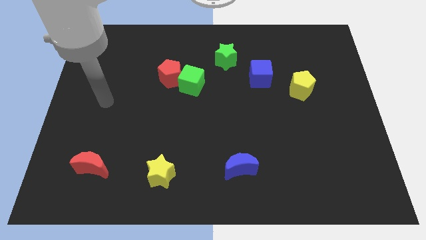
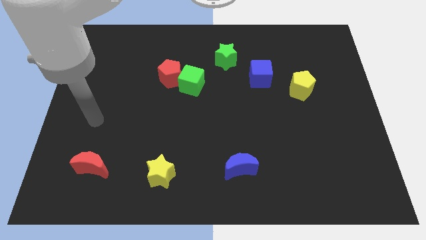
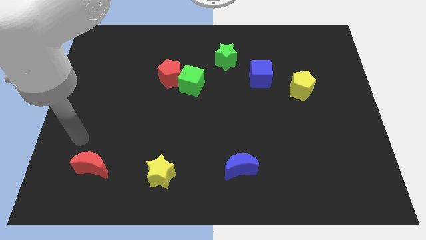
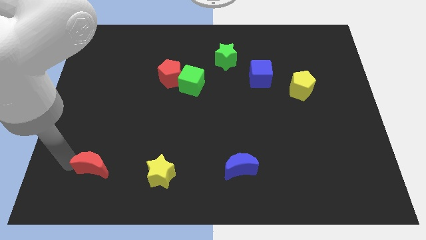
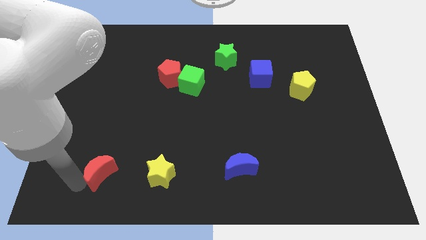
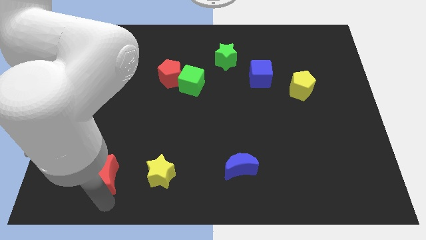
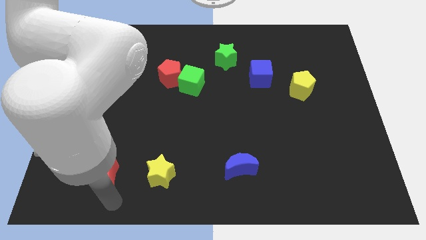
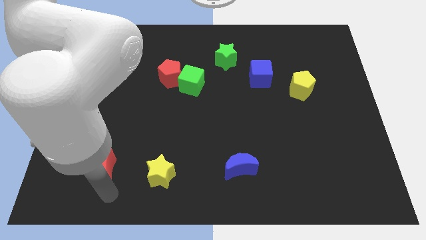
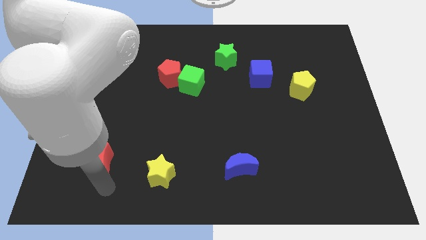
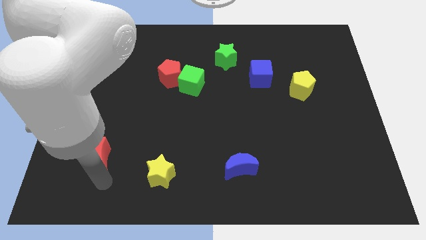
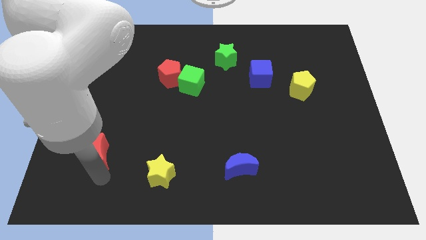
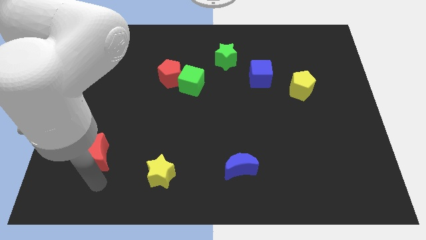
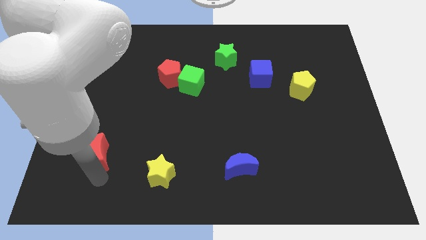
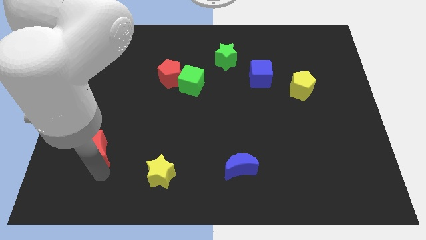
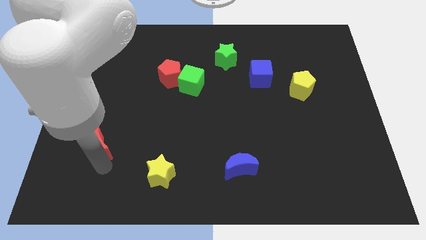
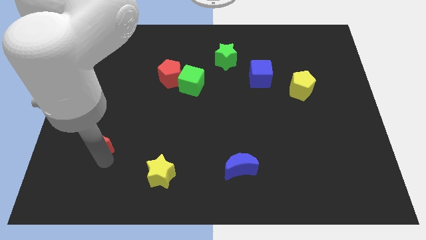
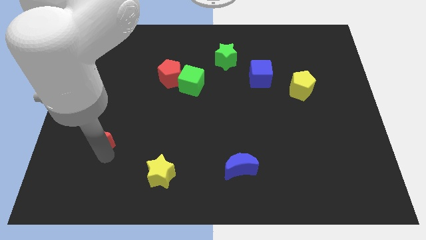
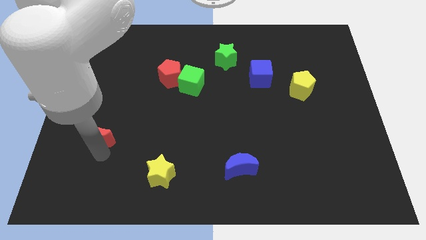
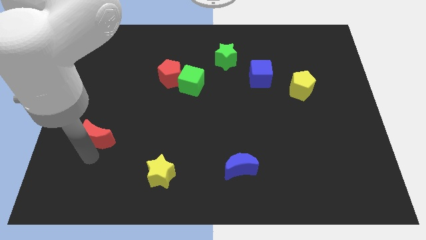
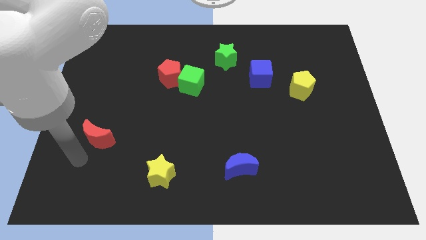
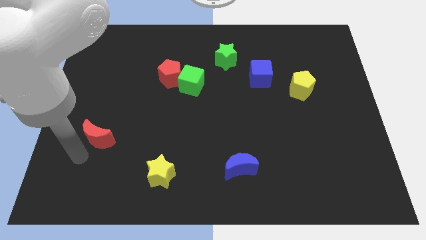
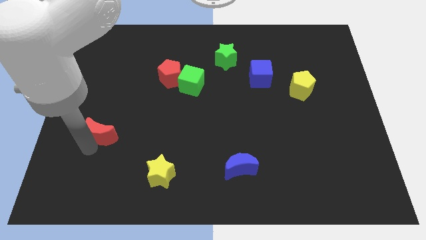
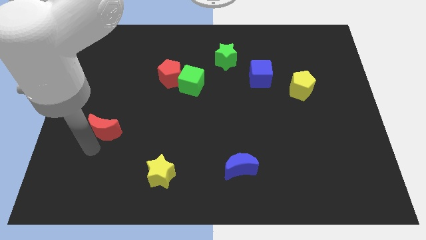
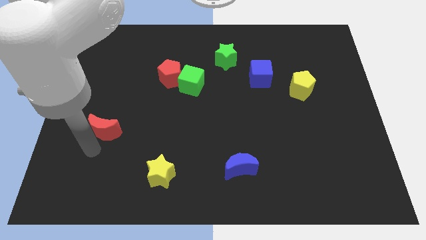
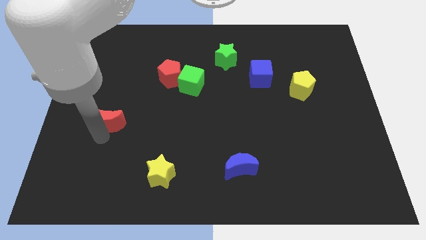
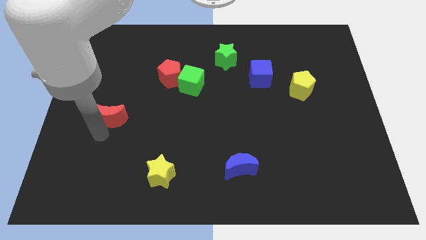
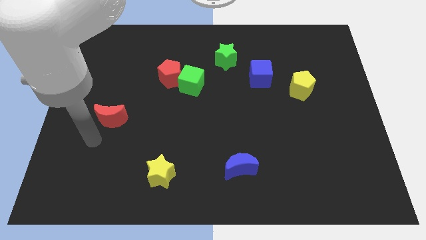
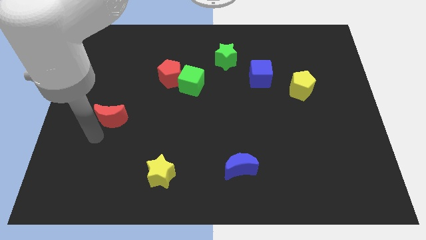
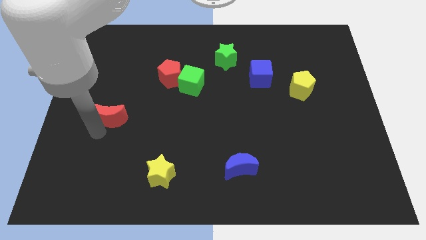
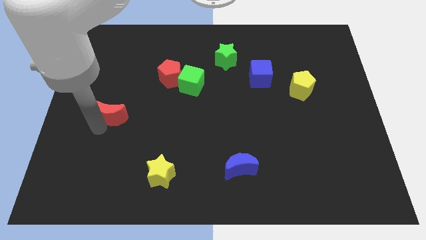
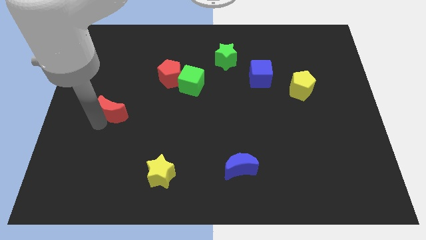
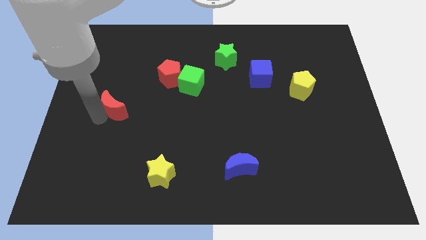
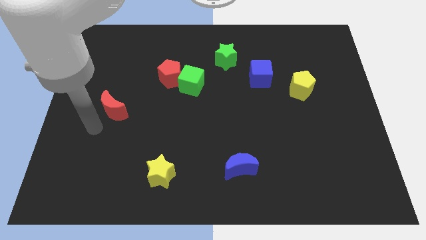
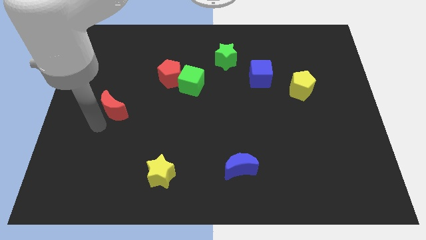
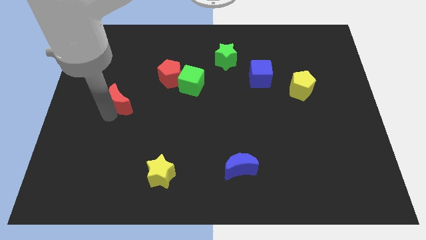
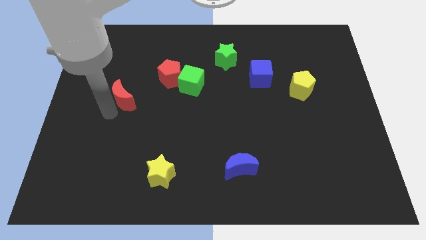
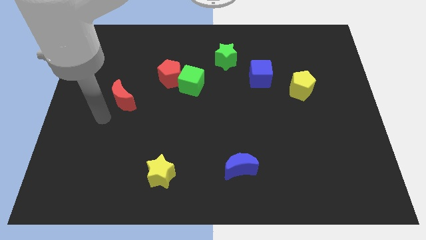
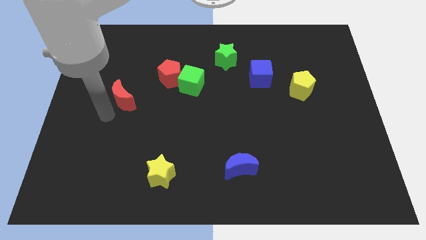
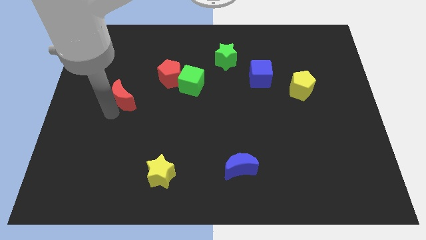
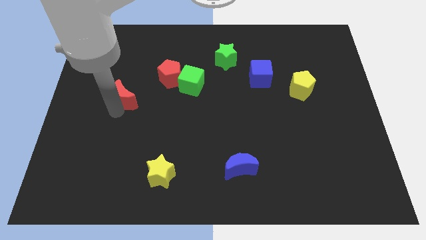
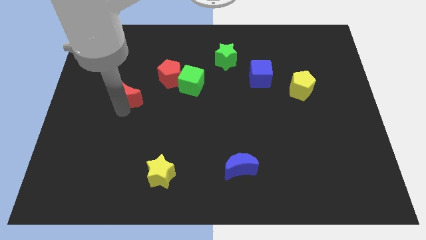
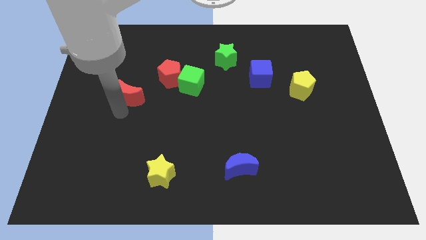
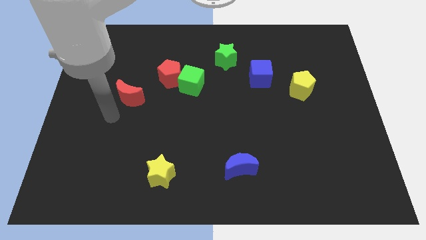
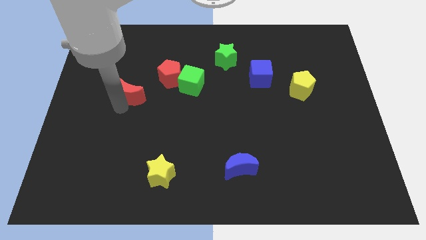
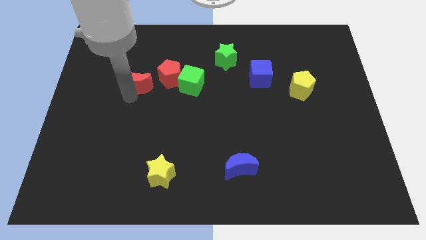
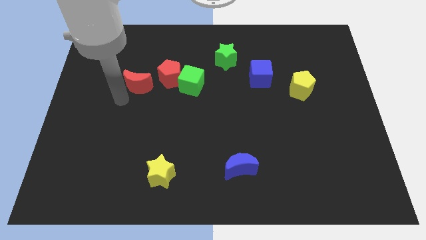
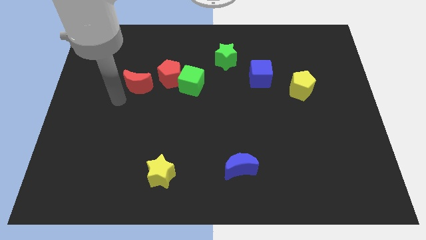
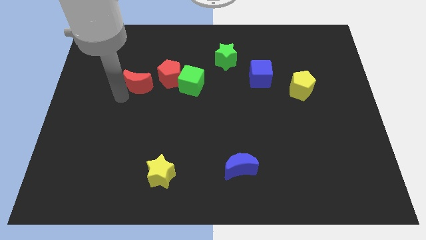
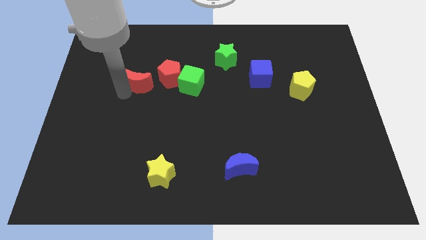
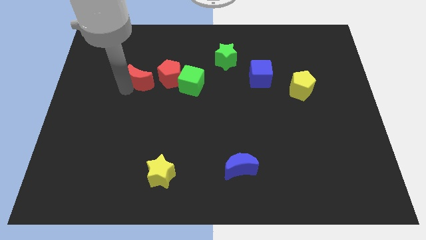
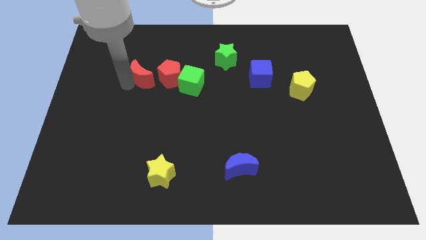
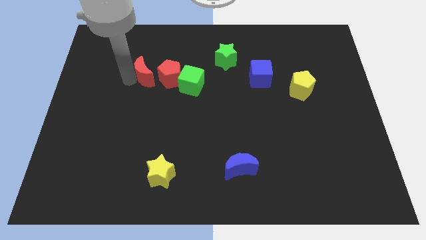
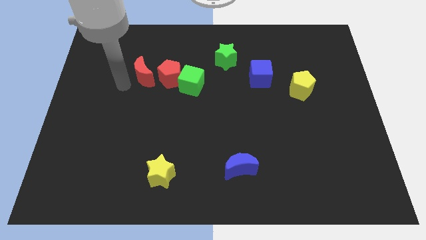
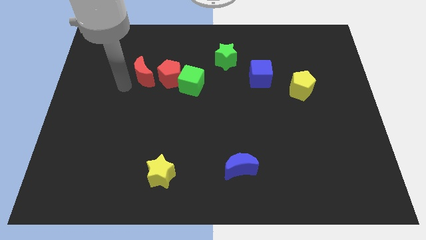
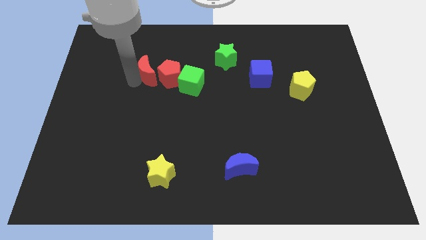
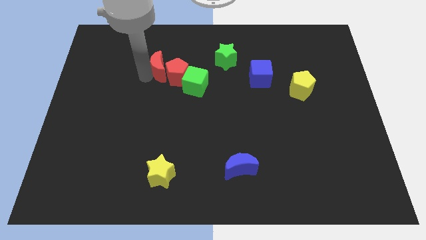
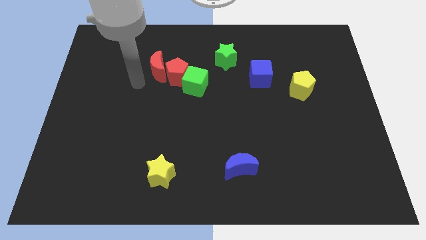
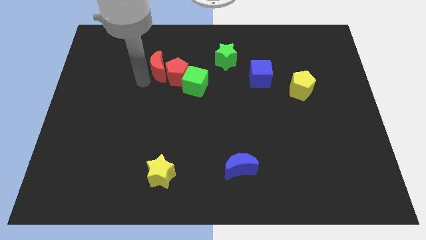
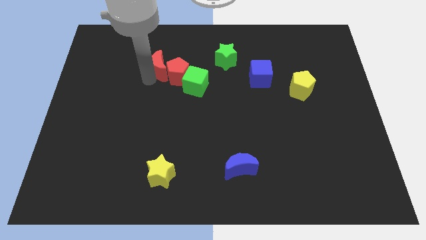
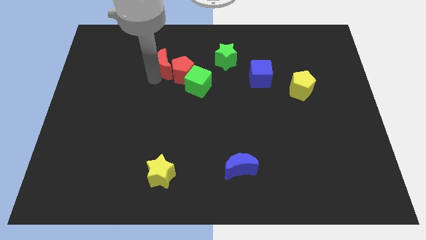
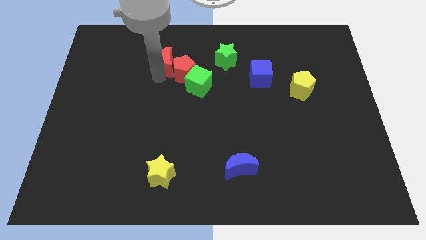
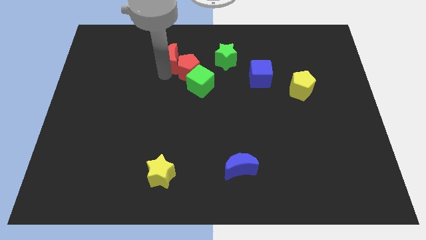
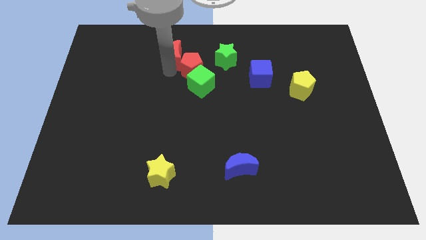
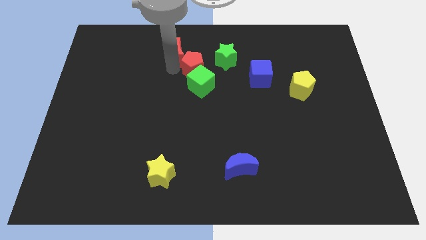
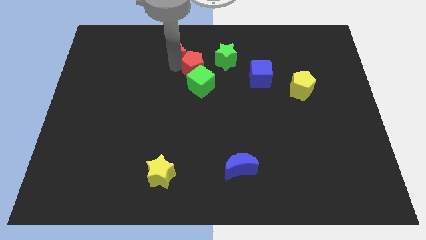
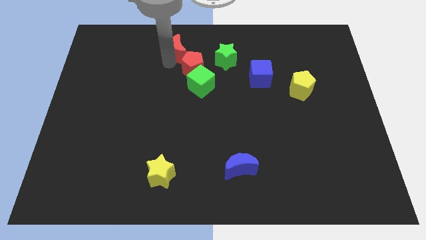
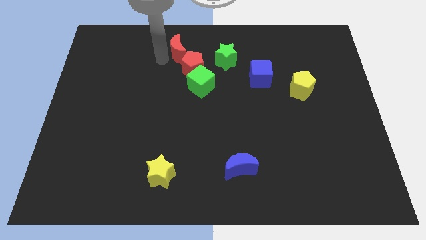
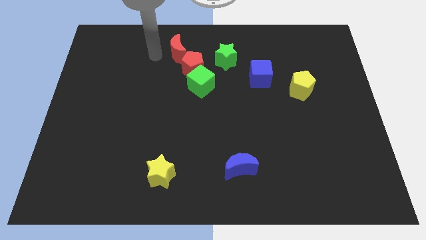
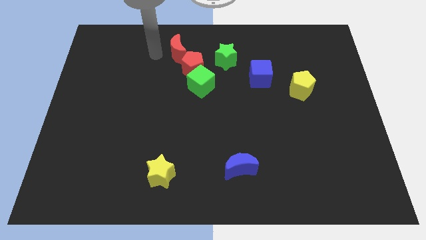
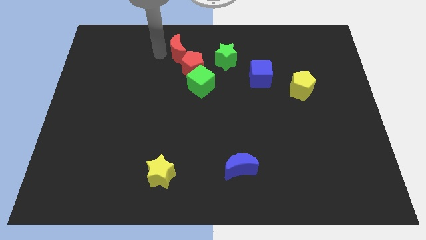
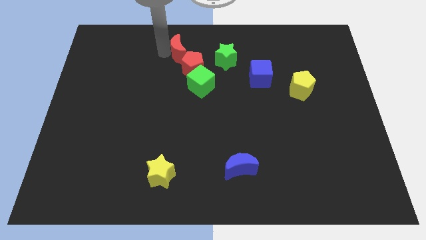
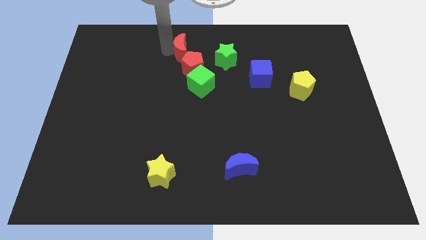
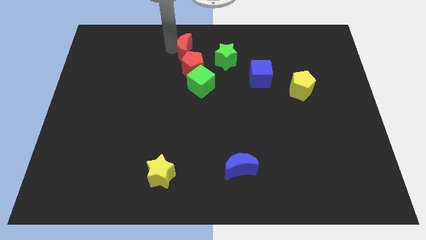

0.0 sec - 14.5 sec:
slide the red moon to the top side
